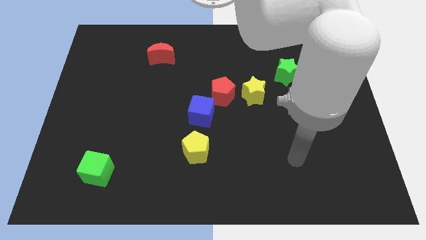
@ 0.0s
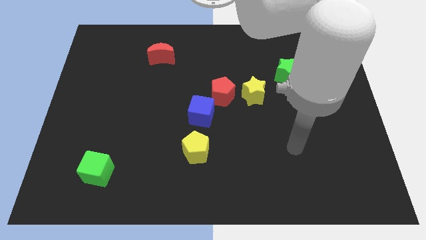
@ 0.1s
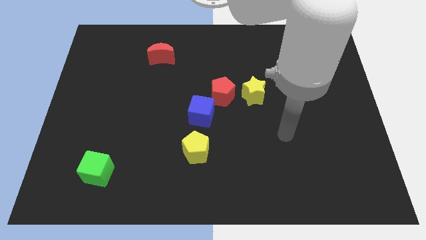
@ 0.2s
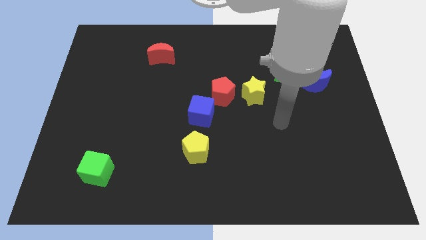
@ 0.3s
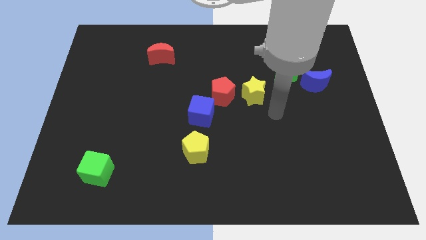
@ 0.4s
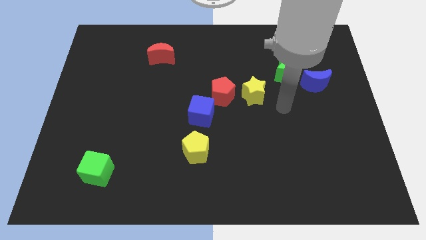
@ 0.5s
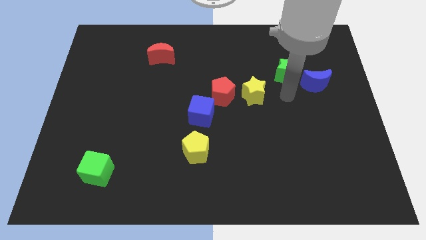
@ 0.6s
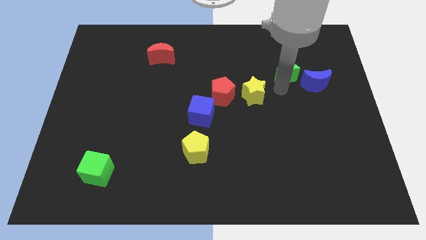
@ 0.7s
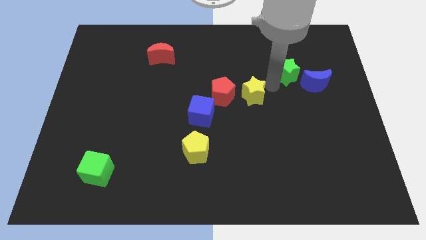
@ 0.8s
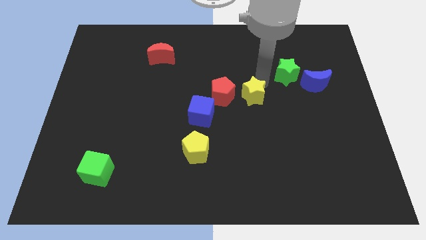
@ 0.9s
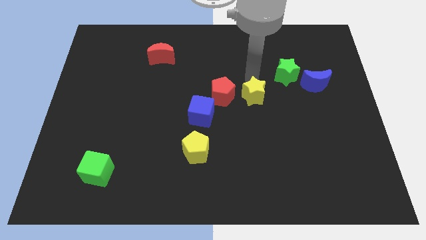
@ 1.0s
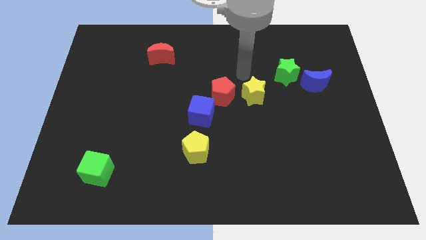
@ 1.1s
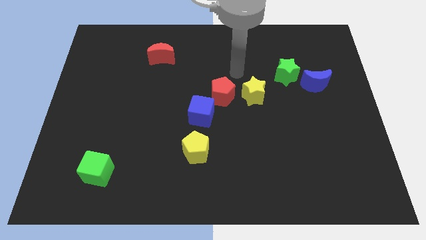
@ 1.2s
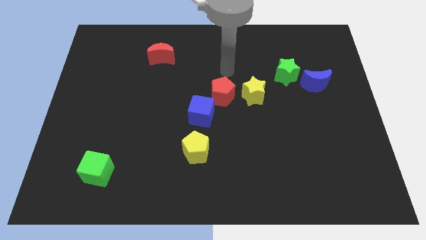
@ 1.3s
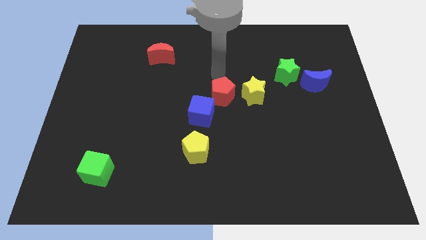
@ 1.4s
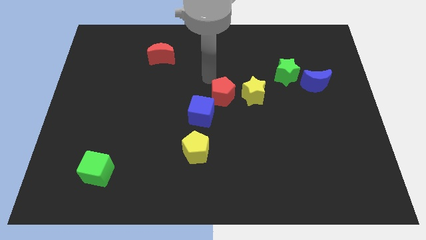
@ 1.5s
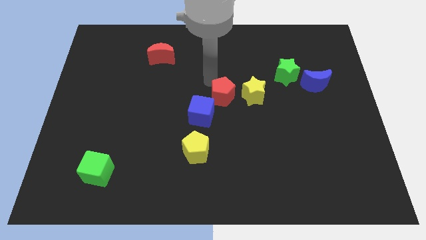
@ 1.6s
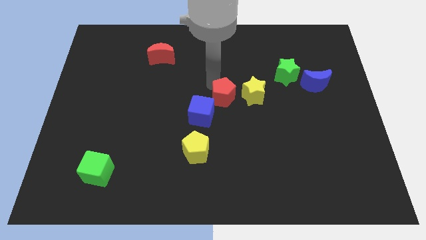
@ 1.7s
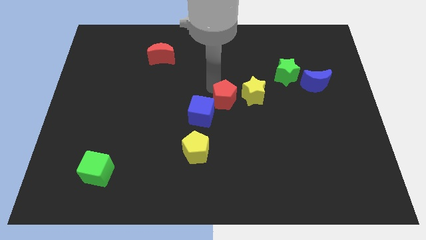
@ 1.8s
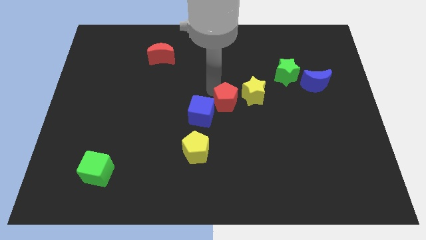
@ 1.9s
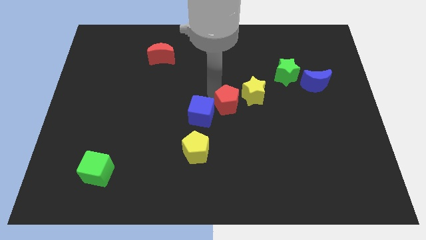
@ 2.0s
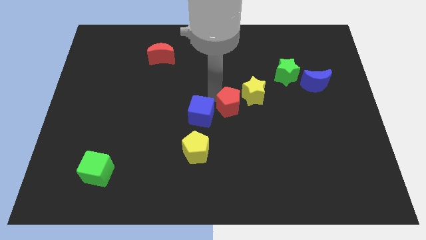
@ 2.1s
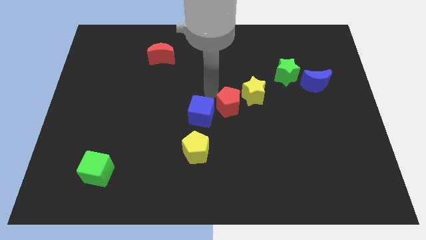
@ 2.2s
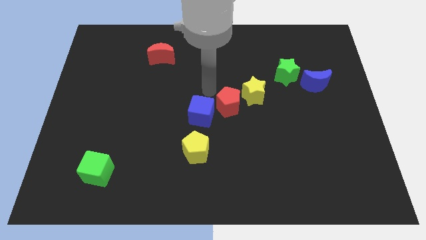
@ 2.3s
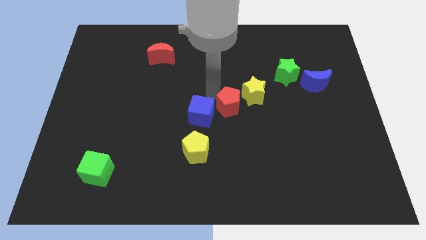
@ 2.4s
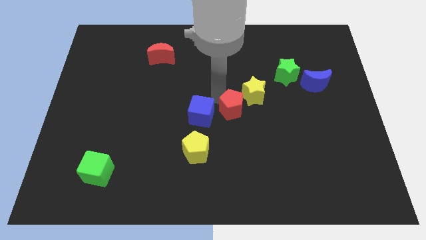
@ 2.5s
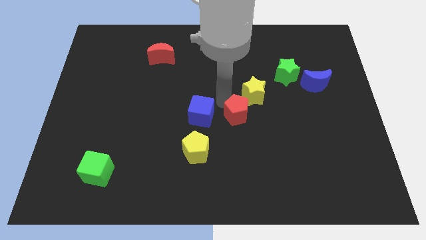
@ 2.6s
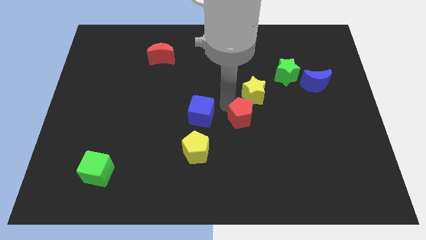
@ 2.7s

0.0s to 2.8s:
slightly move the red pentagon downwards and to the right

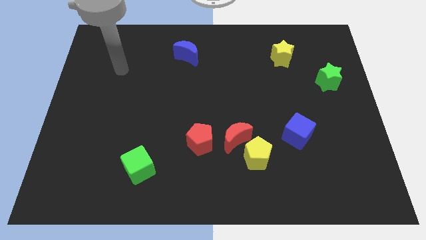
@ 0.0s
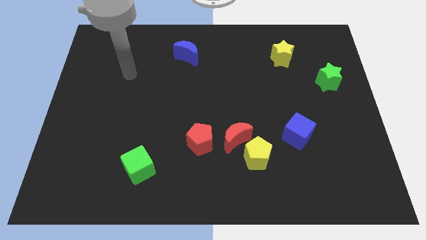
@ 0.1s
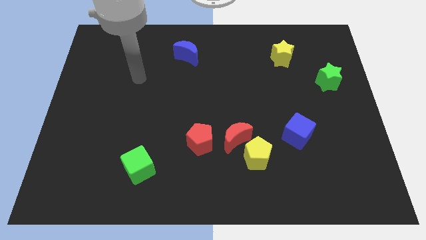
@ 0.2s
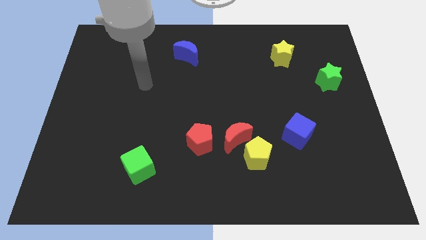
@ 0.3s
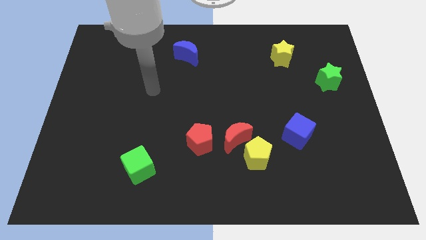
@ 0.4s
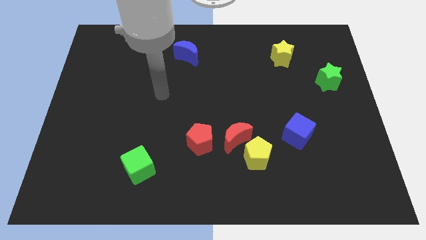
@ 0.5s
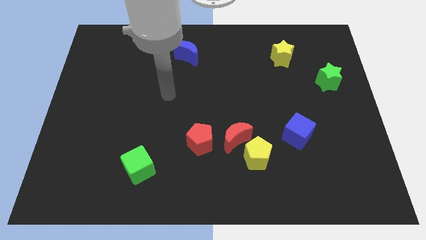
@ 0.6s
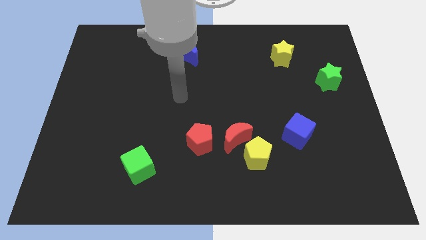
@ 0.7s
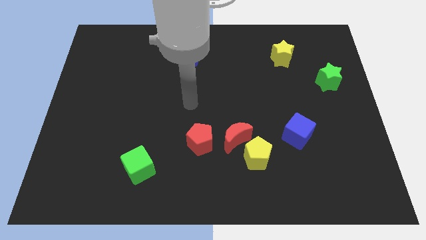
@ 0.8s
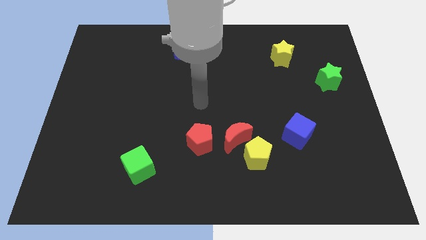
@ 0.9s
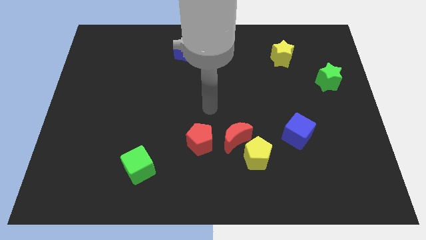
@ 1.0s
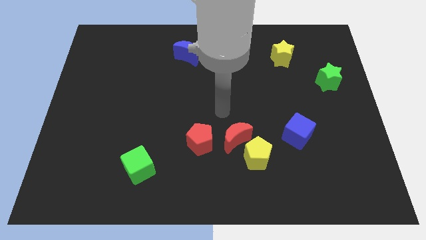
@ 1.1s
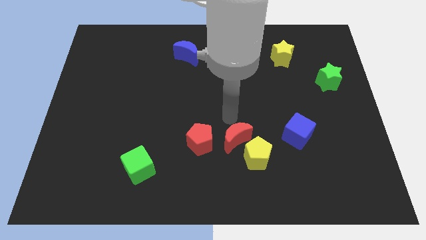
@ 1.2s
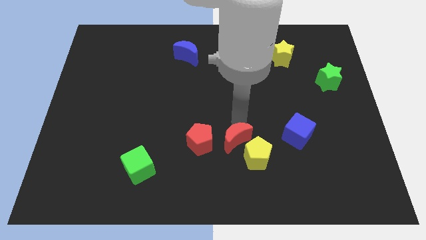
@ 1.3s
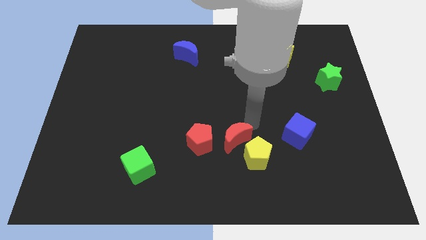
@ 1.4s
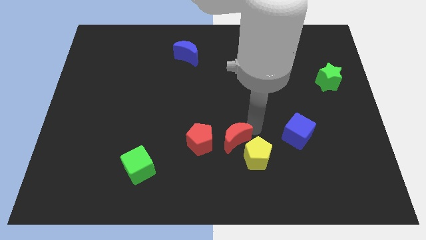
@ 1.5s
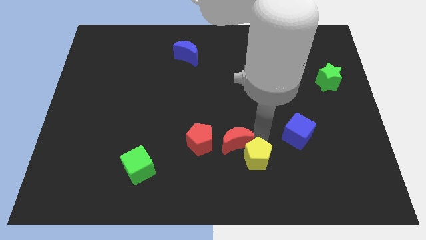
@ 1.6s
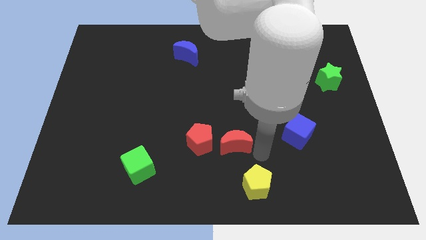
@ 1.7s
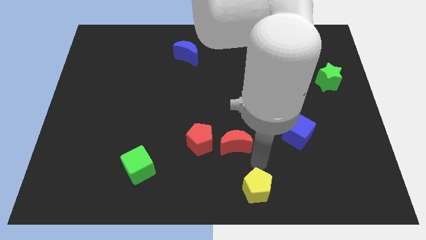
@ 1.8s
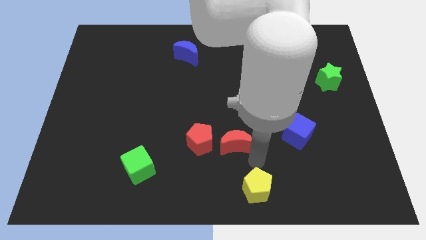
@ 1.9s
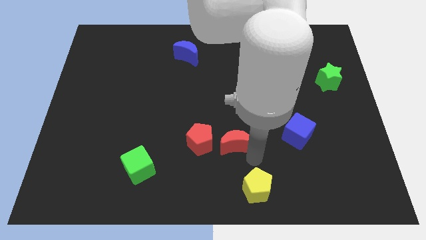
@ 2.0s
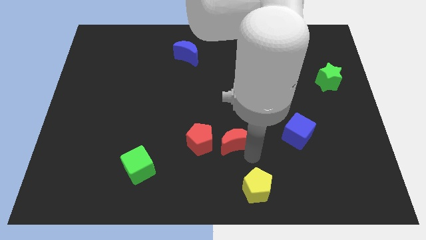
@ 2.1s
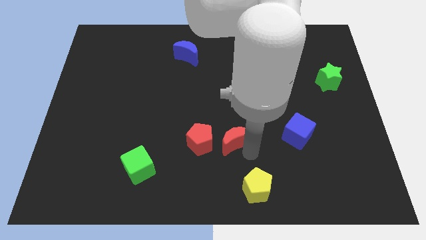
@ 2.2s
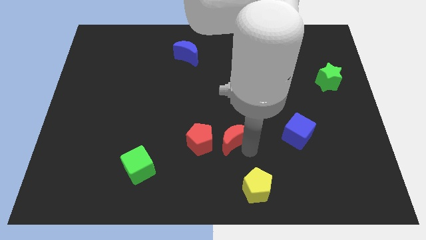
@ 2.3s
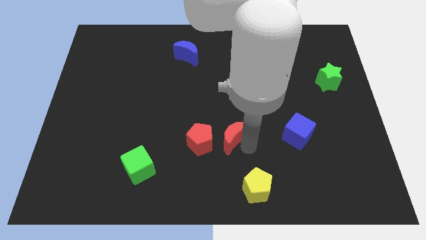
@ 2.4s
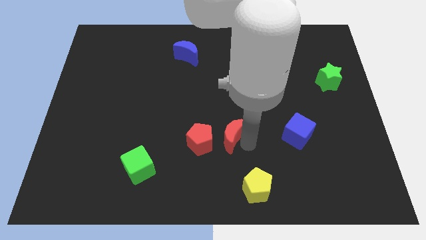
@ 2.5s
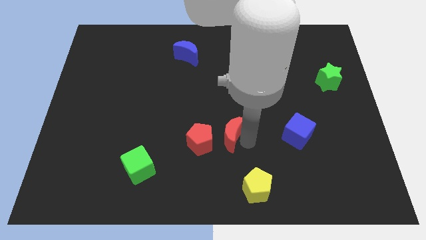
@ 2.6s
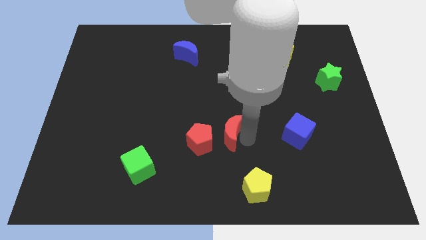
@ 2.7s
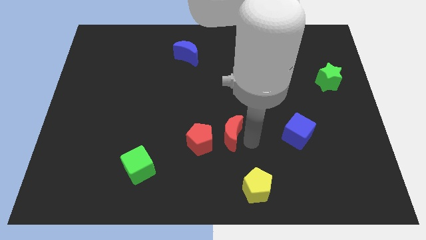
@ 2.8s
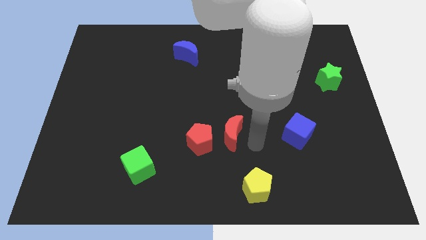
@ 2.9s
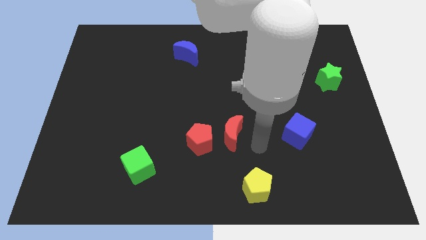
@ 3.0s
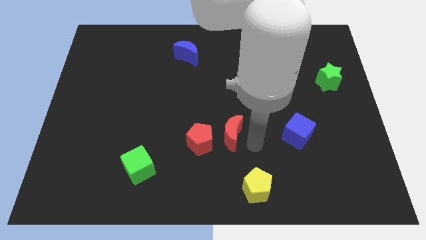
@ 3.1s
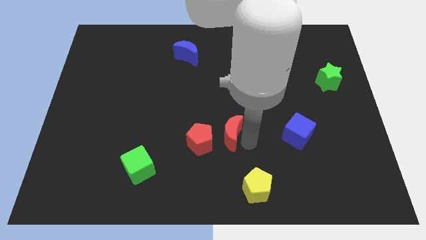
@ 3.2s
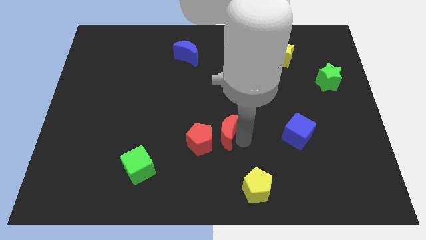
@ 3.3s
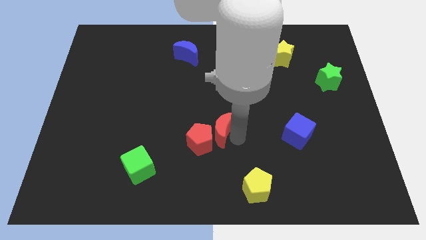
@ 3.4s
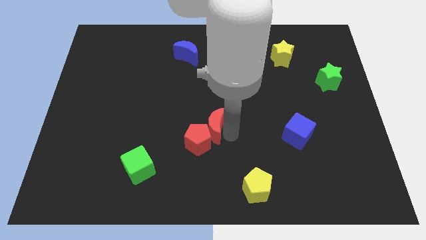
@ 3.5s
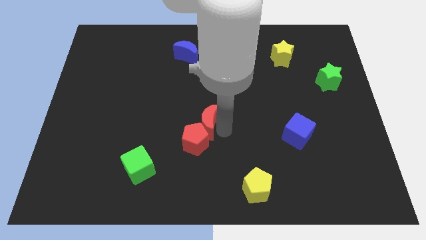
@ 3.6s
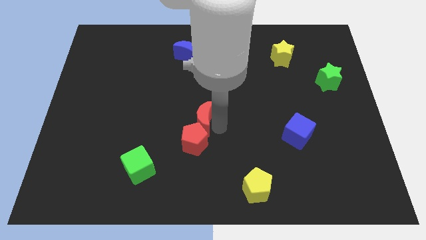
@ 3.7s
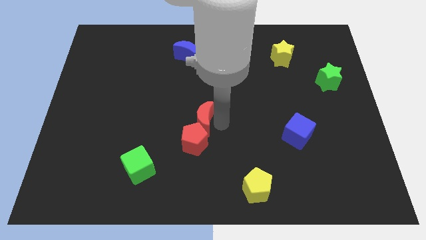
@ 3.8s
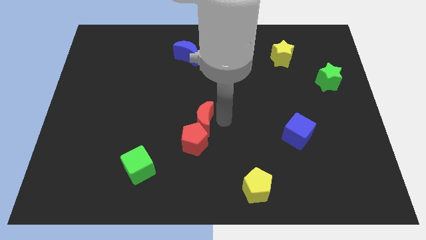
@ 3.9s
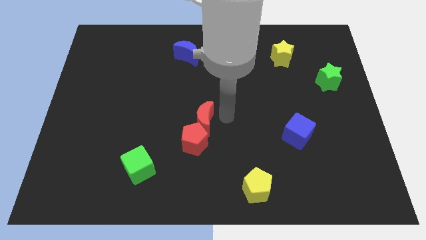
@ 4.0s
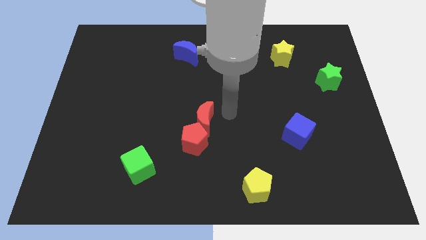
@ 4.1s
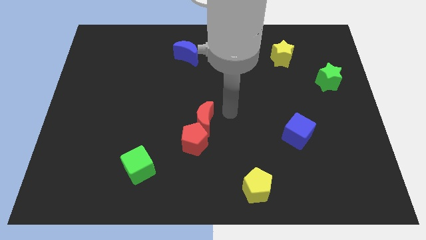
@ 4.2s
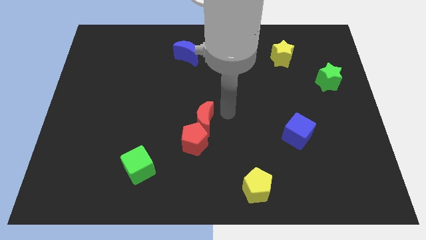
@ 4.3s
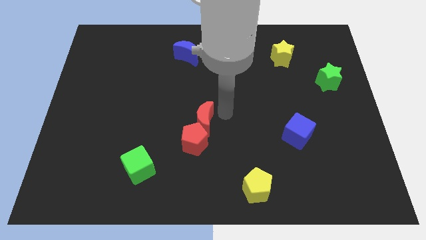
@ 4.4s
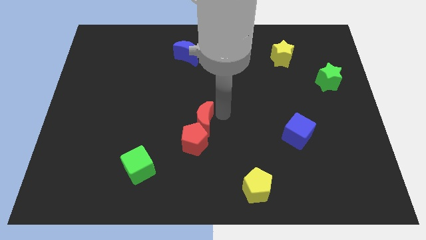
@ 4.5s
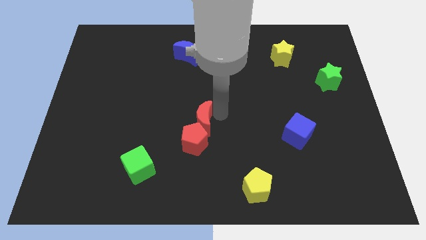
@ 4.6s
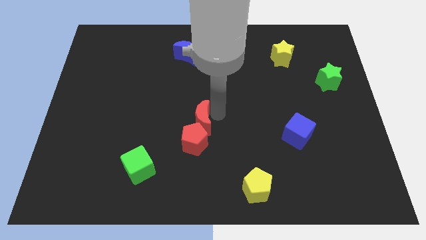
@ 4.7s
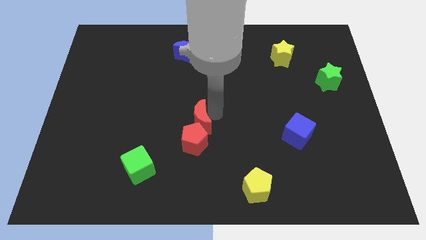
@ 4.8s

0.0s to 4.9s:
slide the red moon a bit left

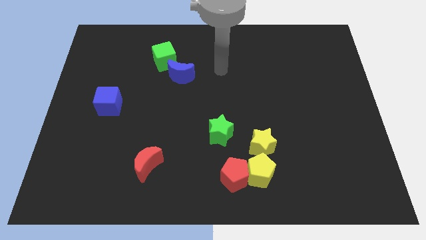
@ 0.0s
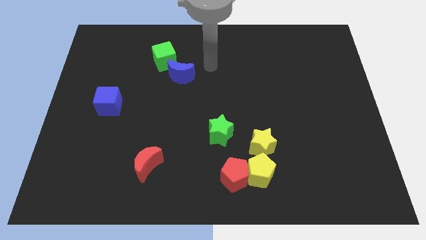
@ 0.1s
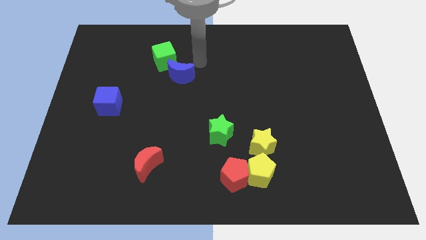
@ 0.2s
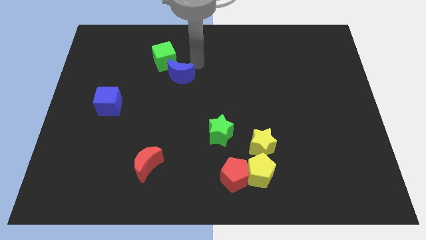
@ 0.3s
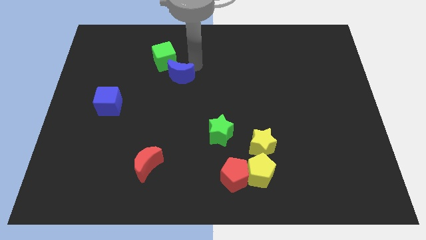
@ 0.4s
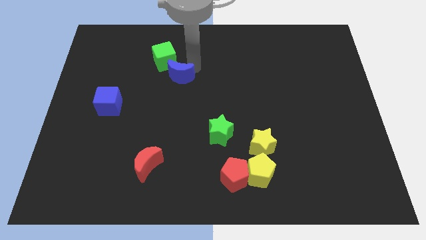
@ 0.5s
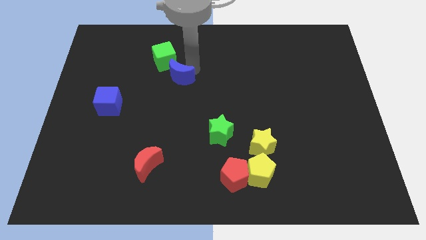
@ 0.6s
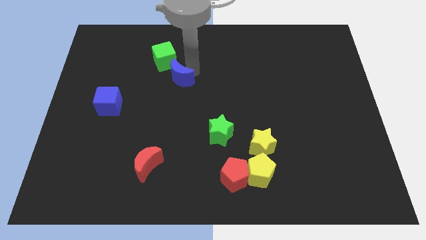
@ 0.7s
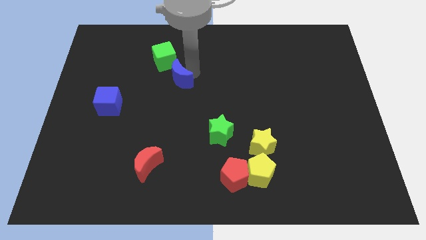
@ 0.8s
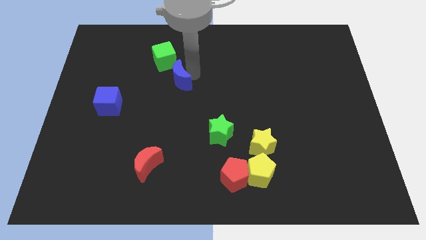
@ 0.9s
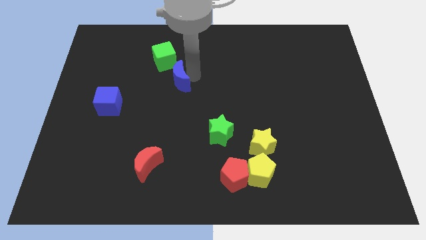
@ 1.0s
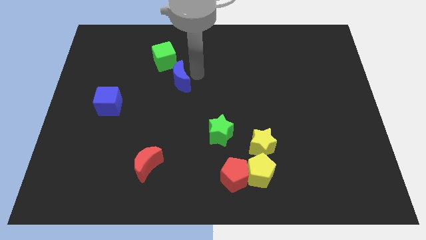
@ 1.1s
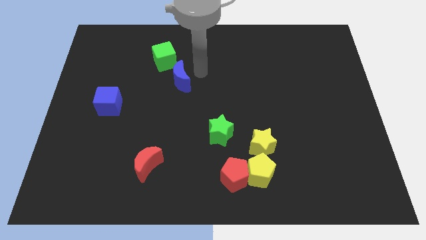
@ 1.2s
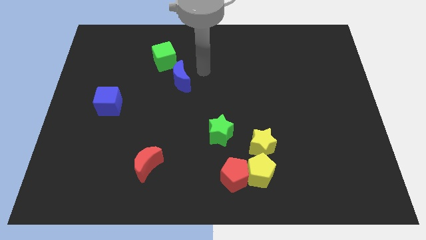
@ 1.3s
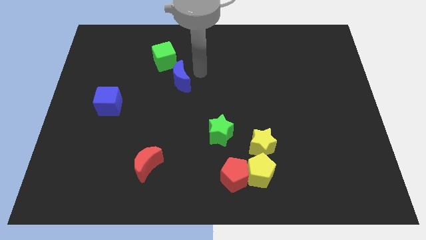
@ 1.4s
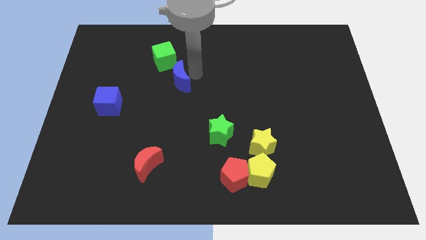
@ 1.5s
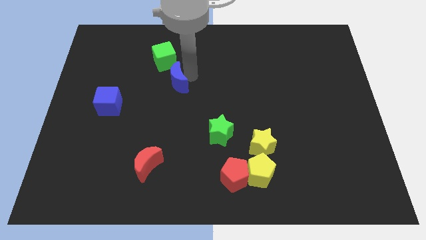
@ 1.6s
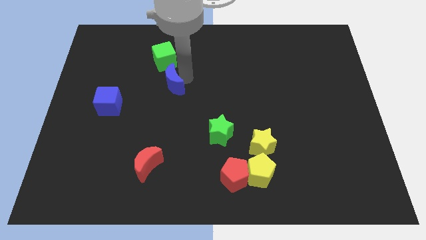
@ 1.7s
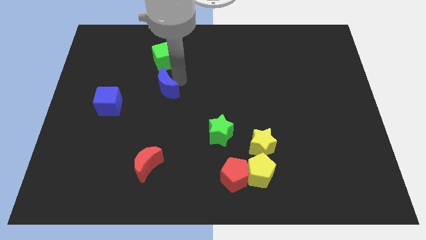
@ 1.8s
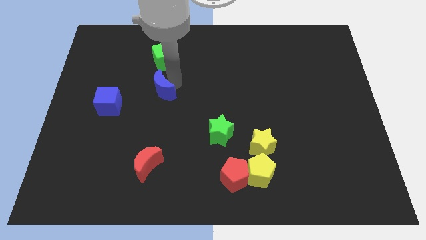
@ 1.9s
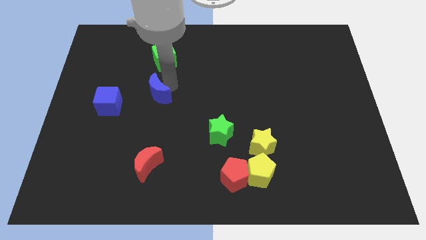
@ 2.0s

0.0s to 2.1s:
slide the blue moon slightly downwards and to the left
